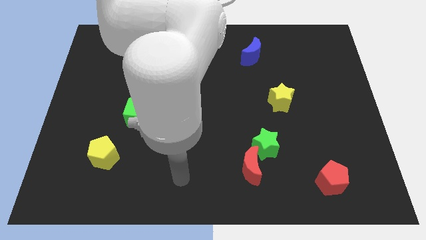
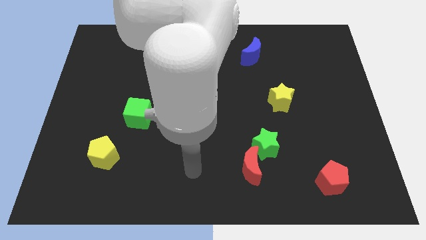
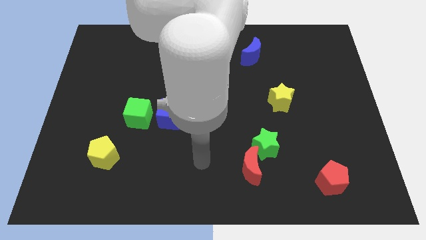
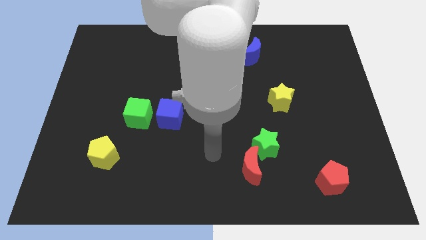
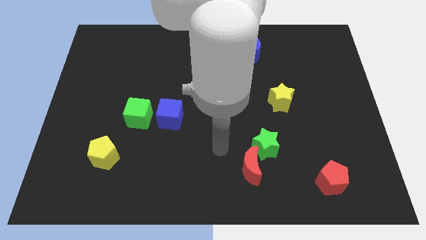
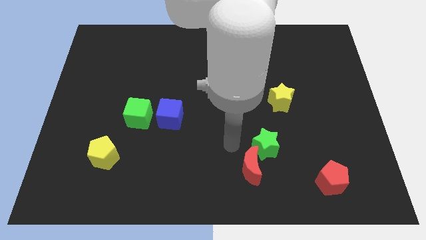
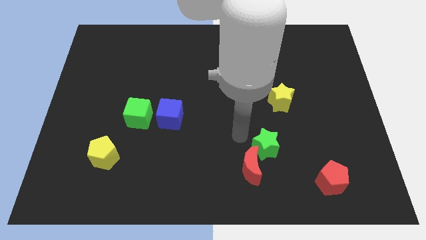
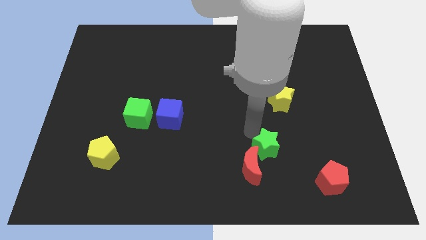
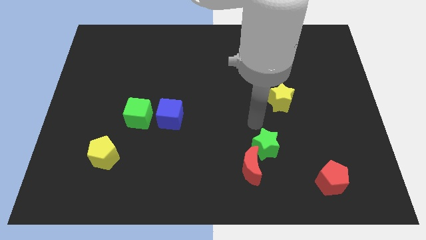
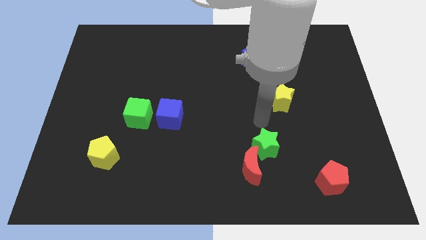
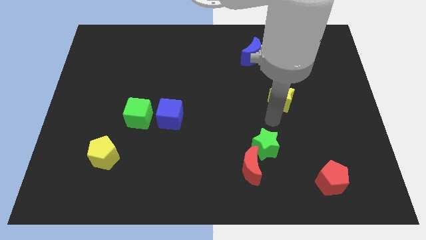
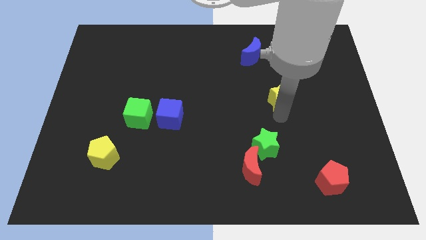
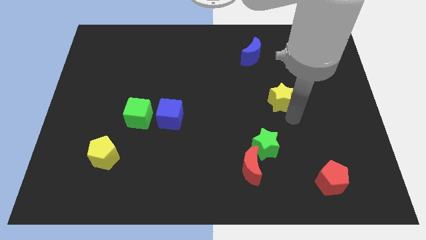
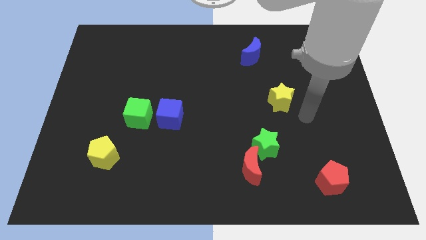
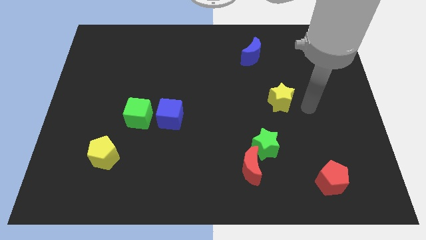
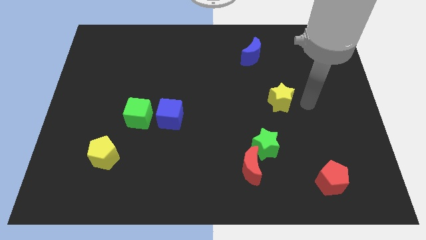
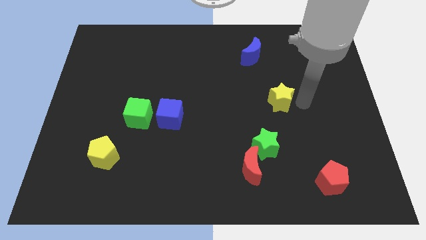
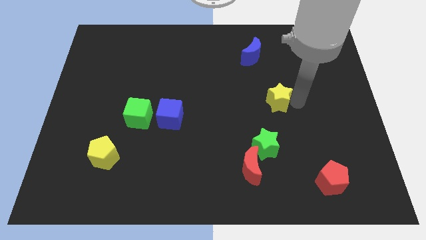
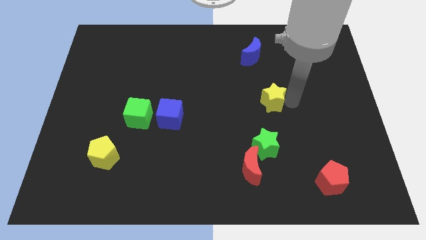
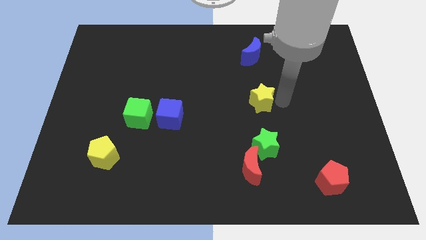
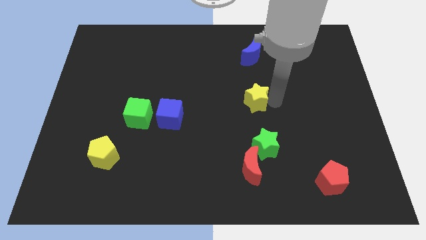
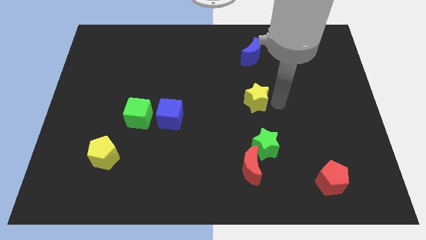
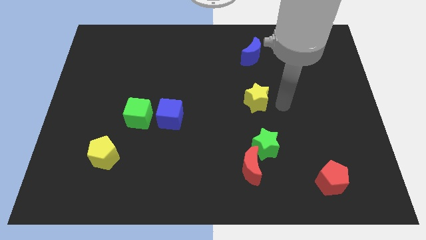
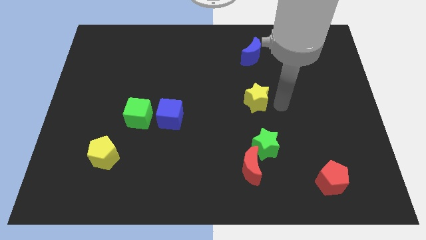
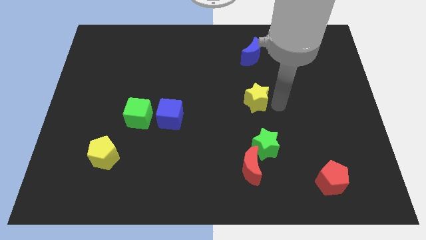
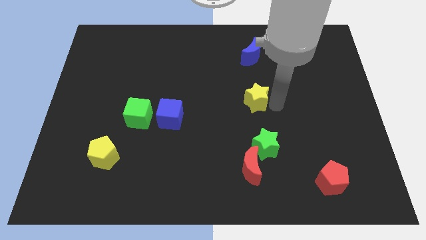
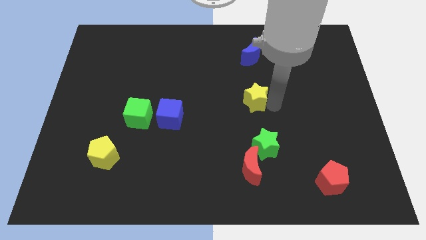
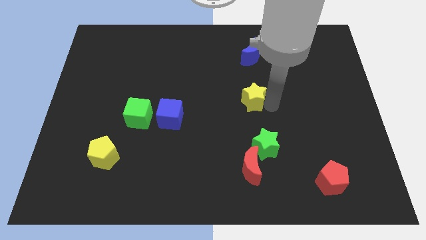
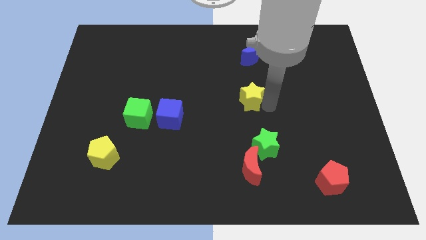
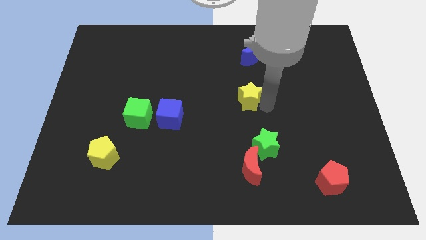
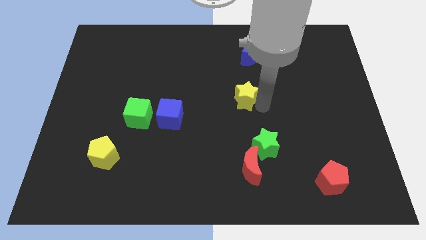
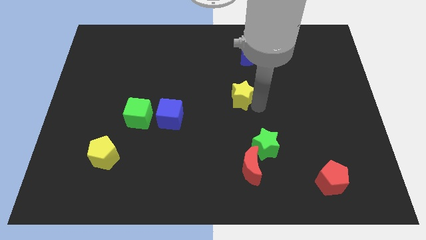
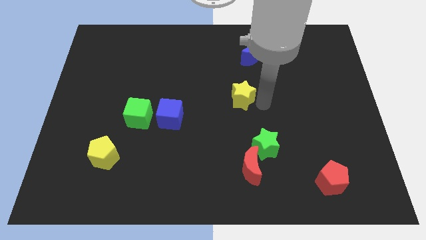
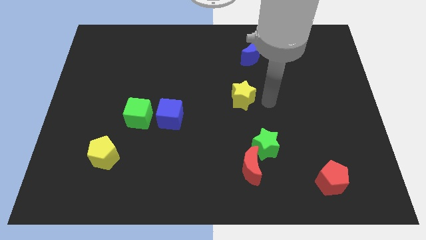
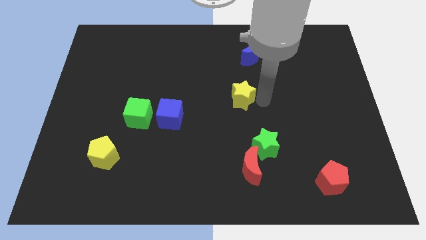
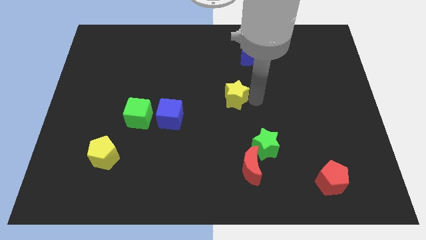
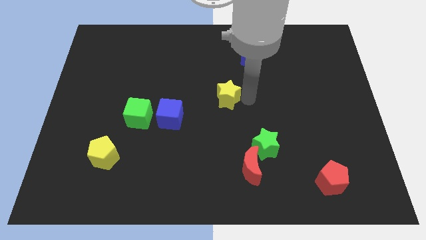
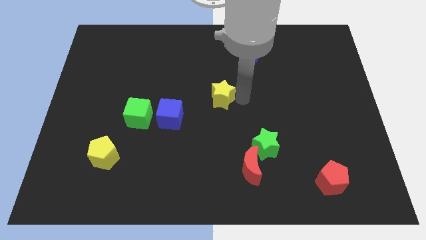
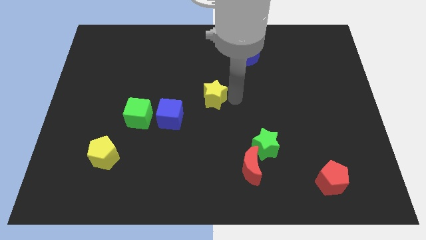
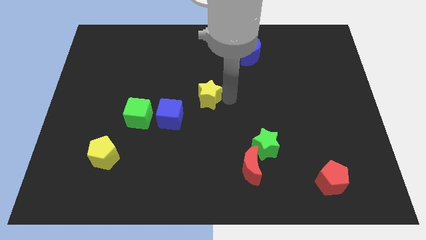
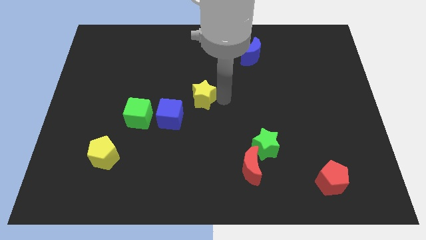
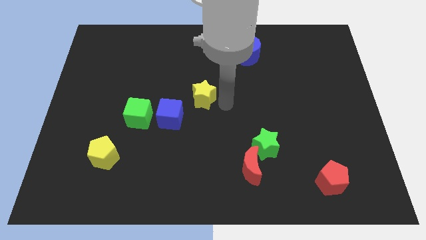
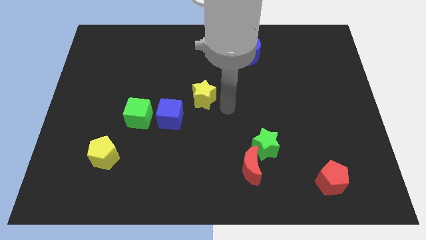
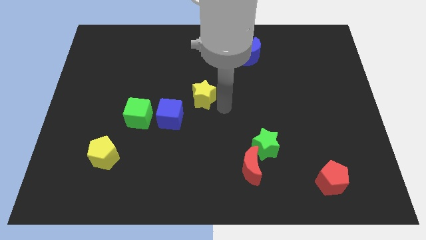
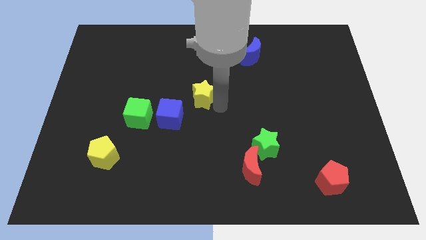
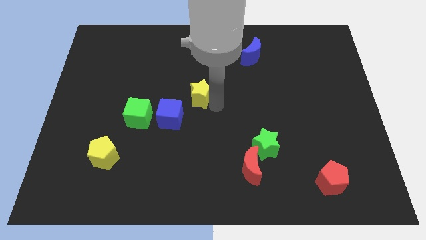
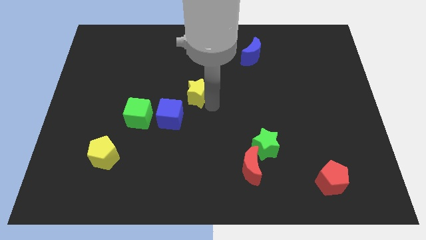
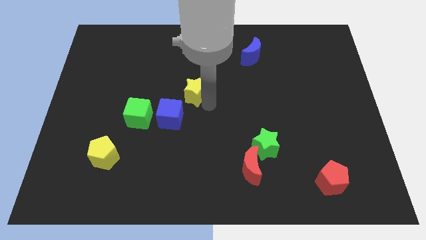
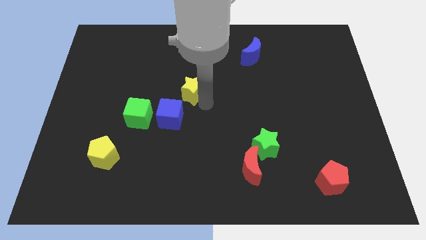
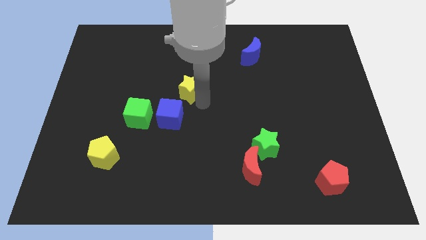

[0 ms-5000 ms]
move the yellow star to the top of the blue cube

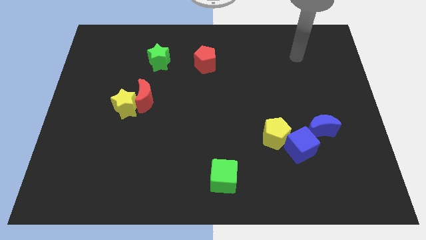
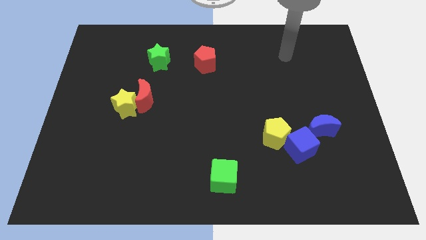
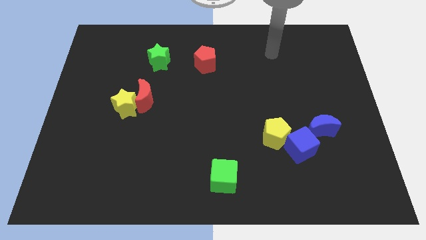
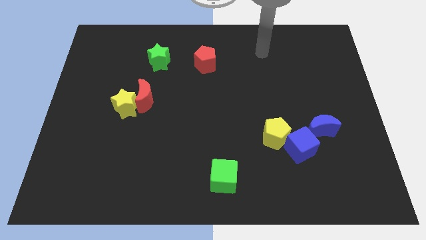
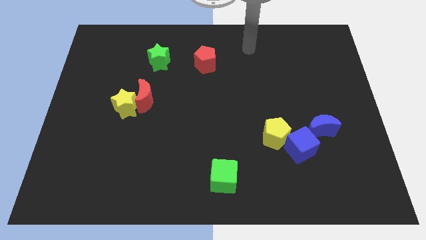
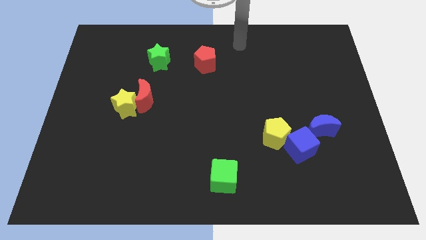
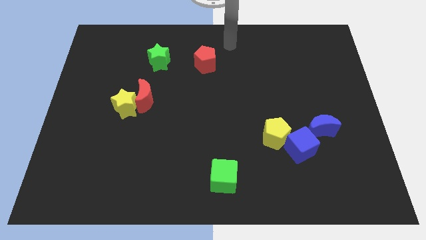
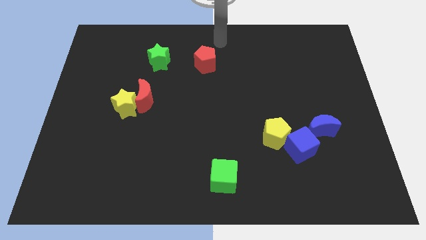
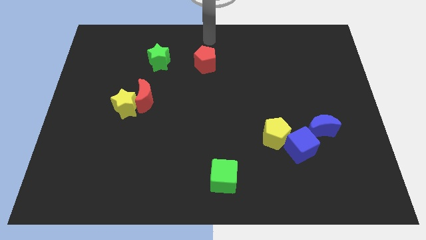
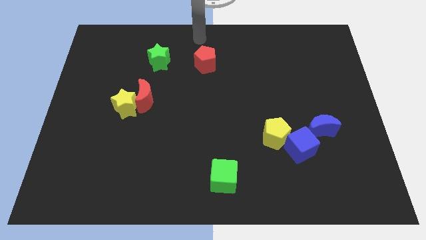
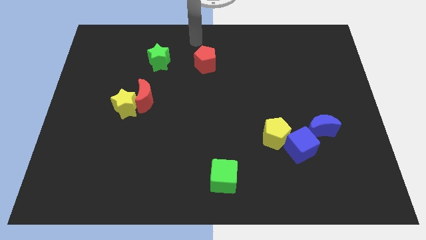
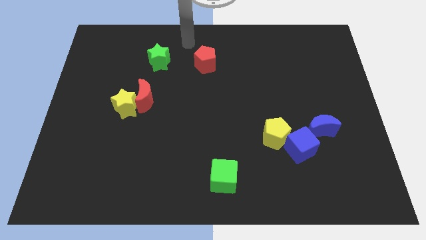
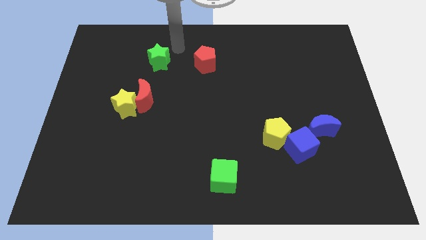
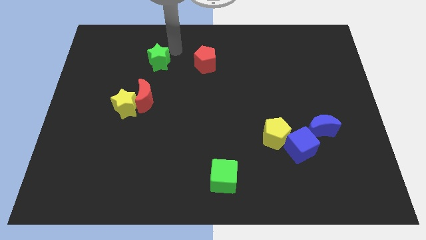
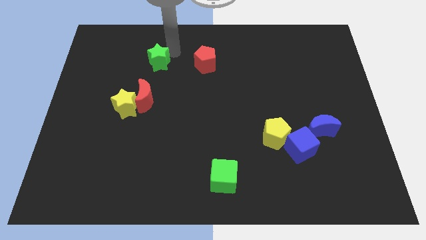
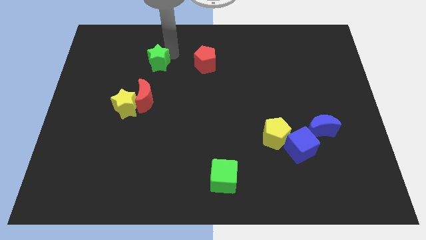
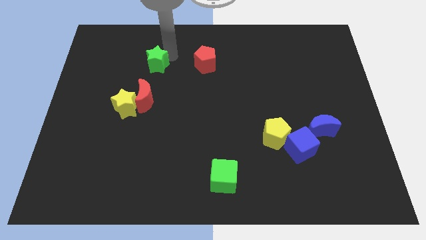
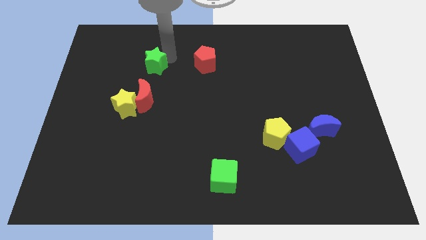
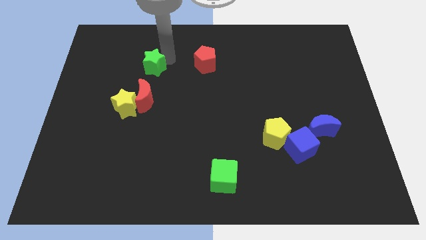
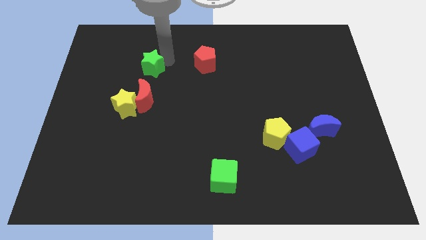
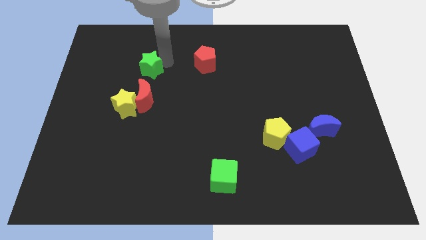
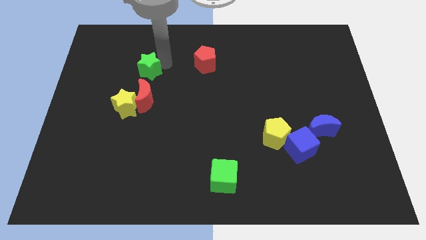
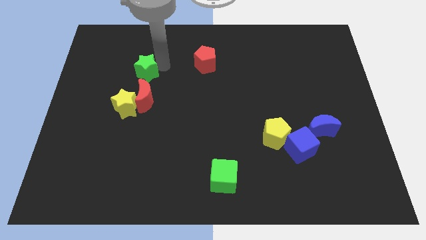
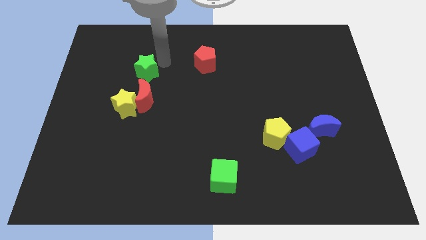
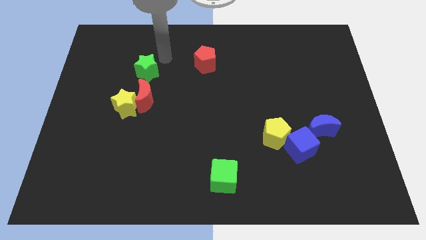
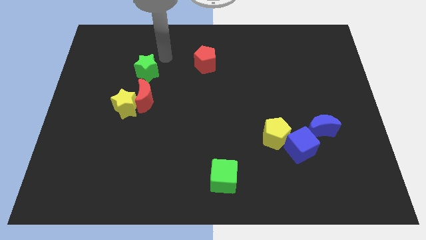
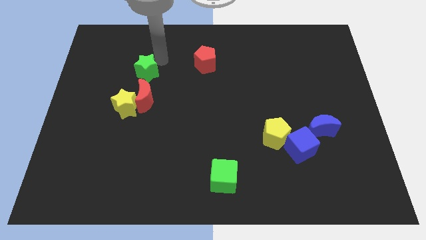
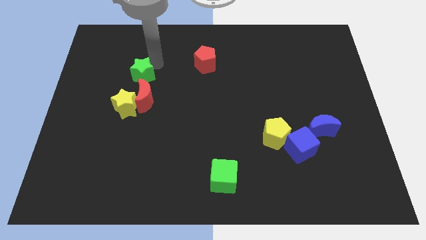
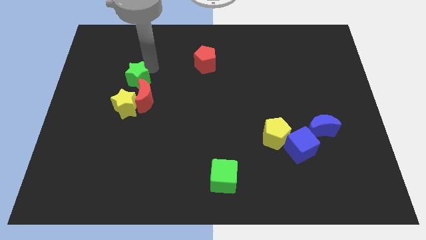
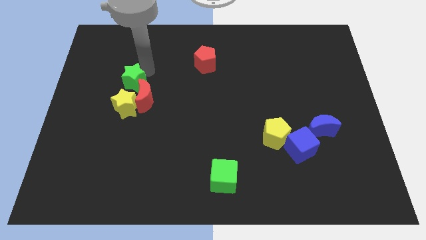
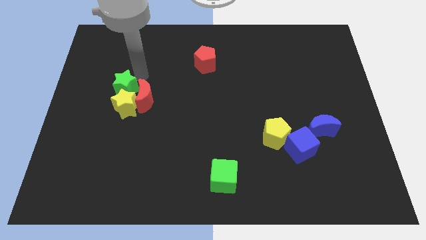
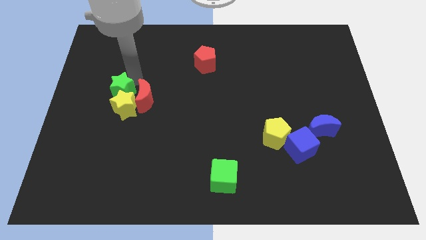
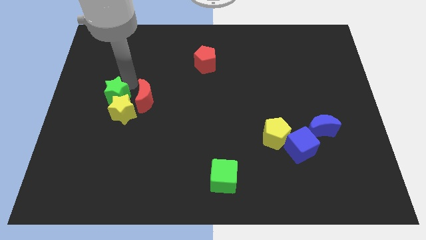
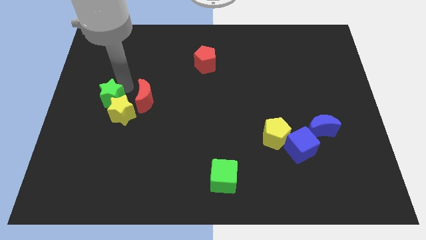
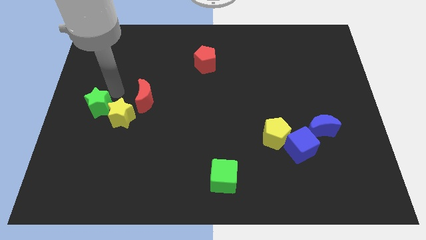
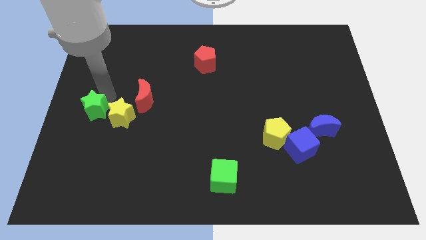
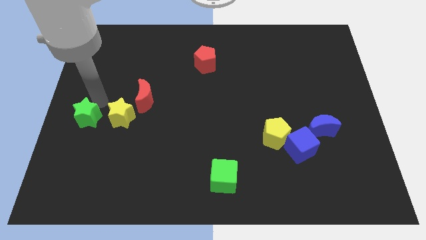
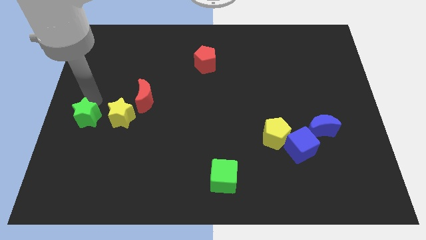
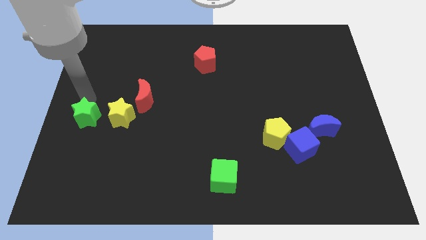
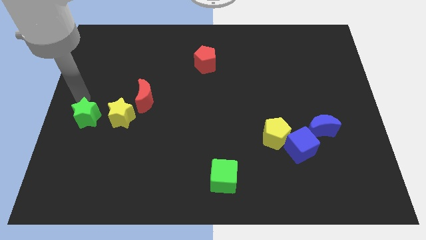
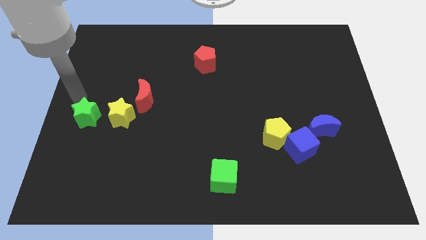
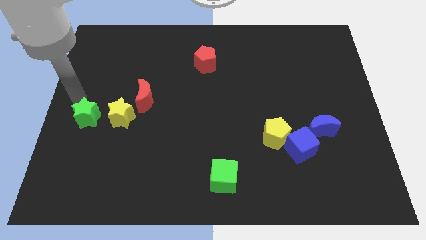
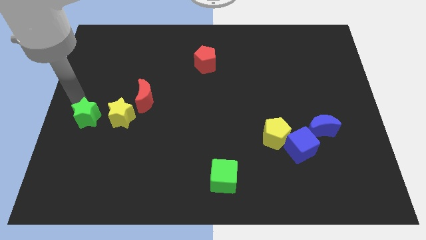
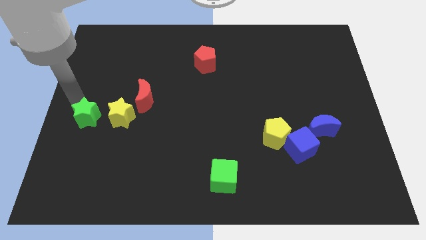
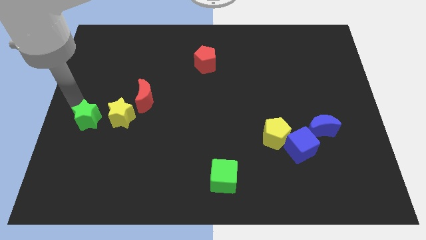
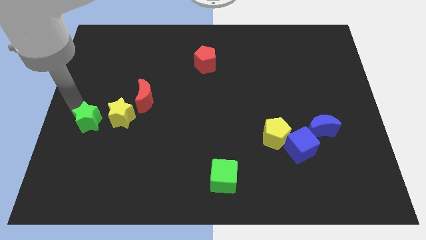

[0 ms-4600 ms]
move the green star to the bottom left of the yellow star
